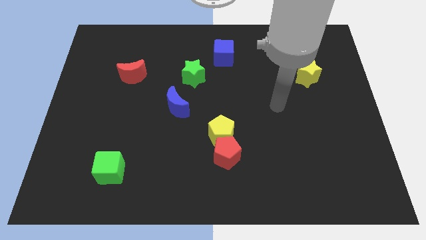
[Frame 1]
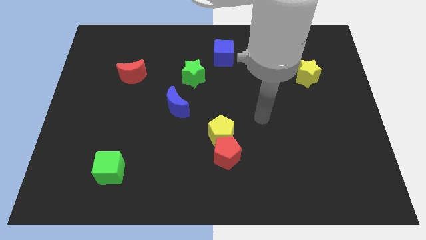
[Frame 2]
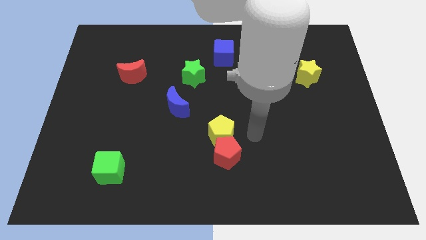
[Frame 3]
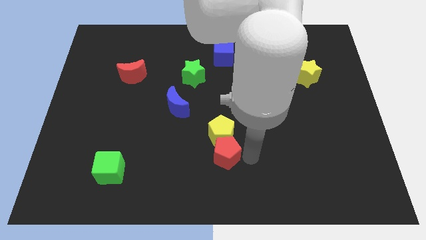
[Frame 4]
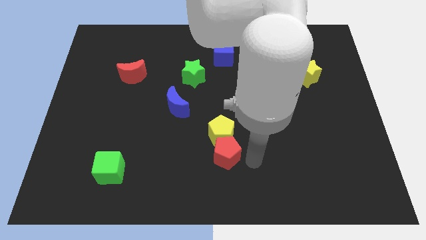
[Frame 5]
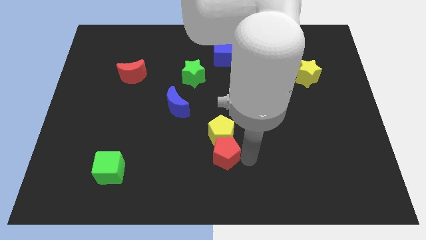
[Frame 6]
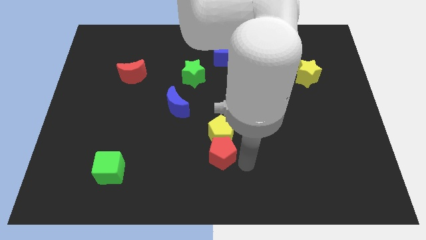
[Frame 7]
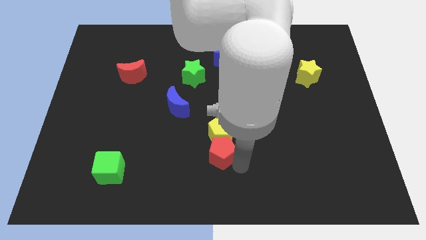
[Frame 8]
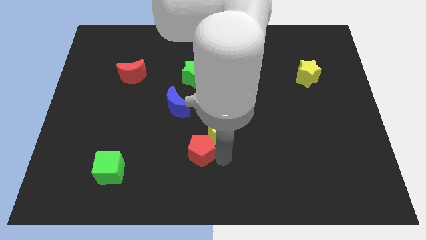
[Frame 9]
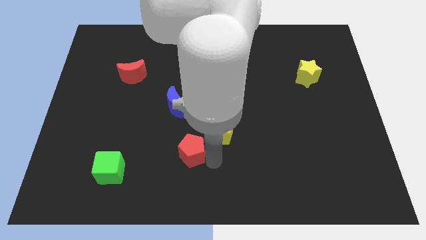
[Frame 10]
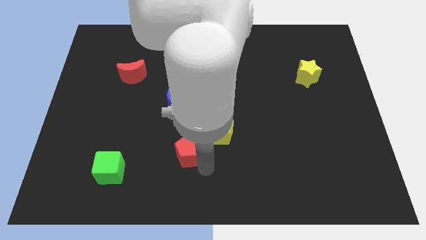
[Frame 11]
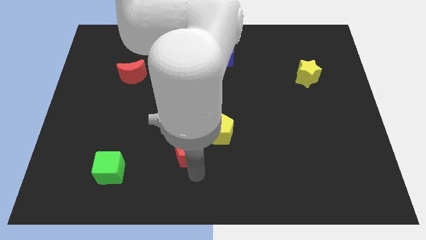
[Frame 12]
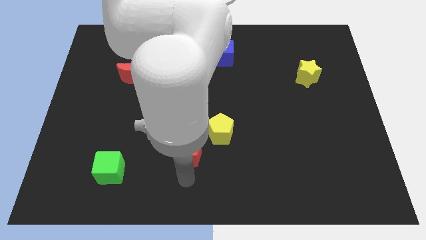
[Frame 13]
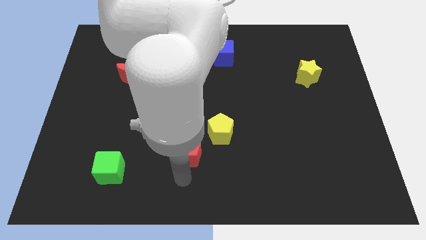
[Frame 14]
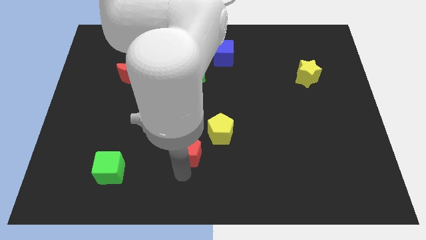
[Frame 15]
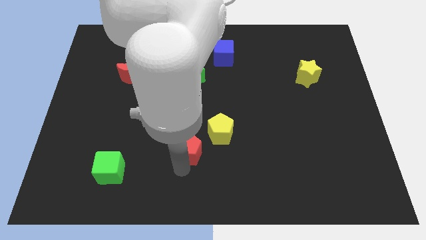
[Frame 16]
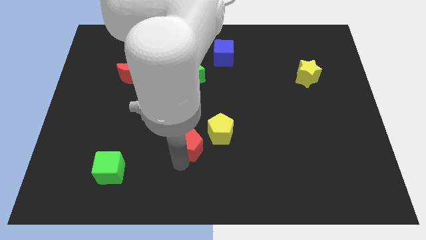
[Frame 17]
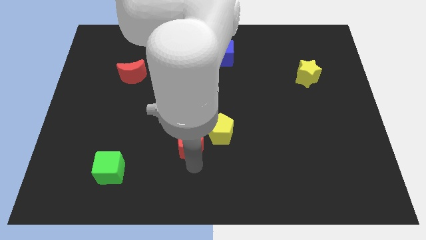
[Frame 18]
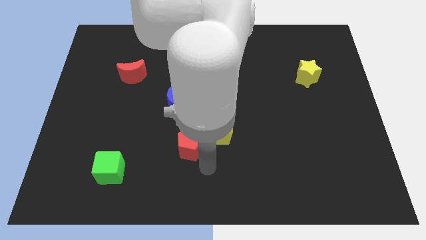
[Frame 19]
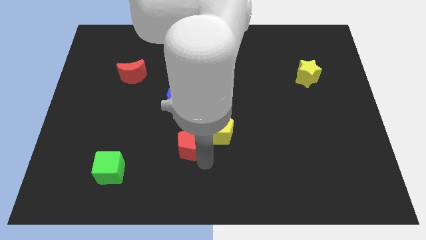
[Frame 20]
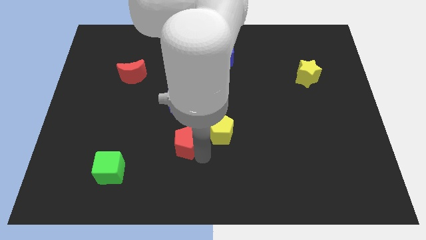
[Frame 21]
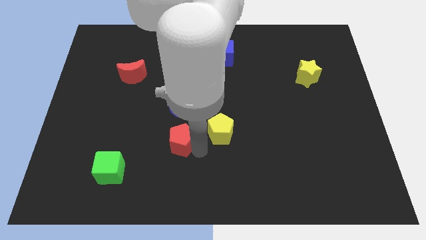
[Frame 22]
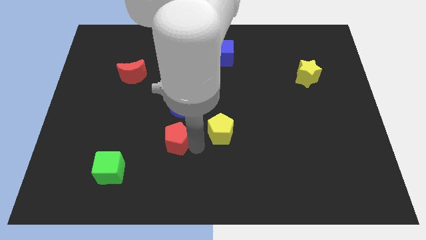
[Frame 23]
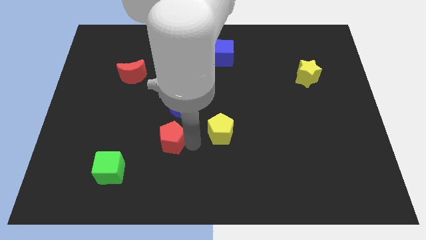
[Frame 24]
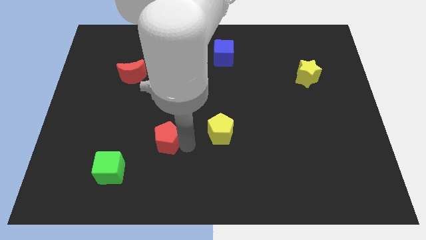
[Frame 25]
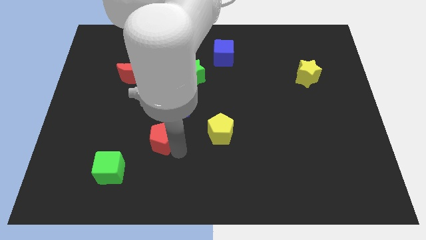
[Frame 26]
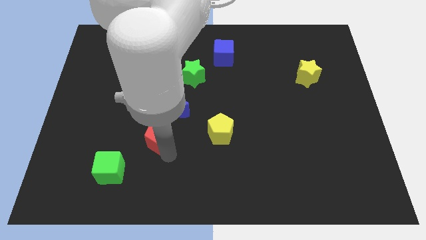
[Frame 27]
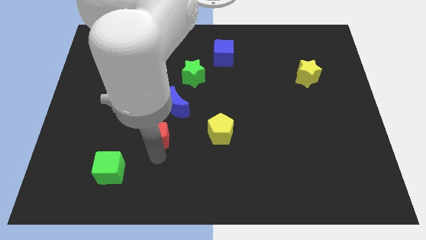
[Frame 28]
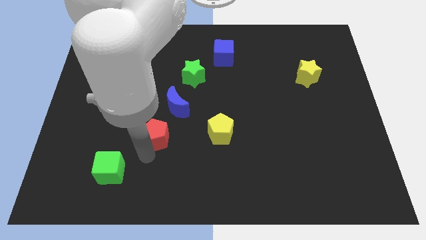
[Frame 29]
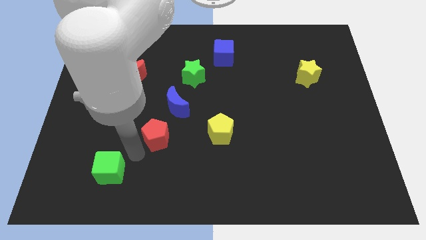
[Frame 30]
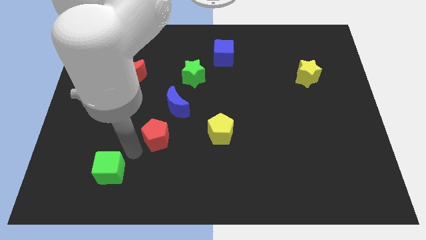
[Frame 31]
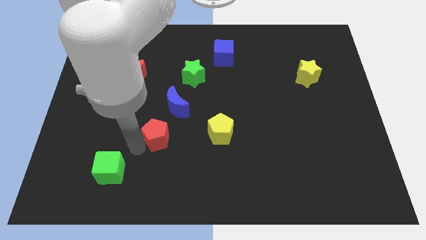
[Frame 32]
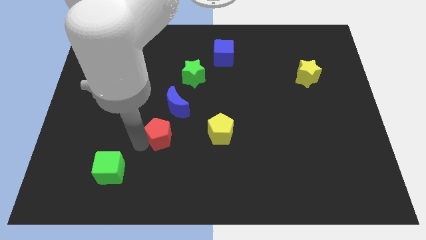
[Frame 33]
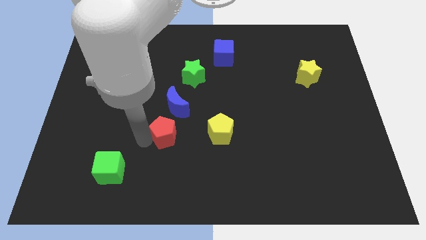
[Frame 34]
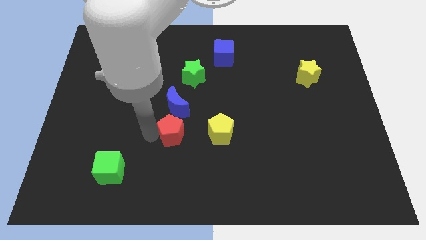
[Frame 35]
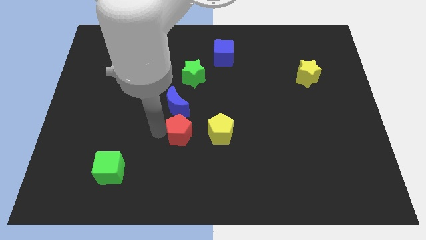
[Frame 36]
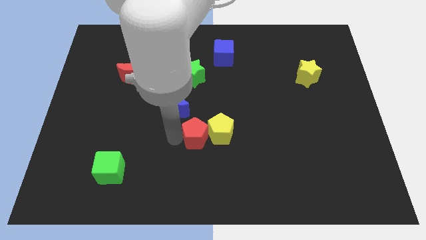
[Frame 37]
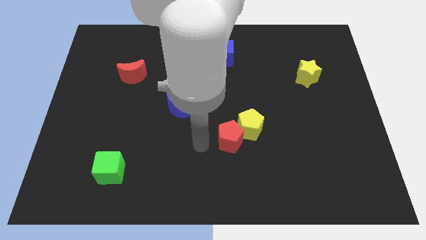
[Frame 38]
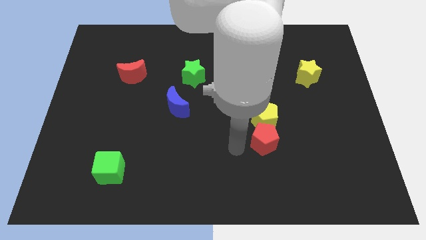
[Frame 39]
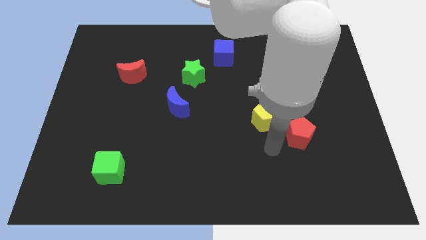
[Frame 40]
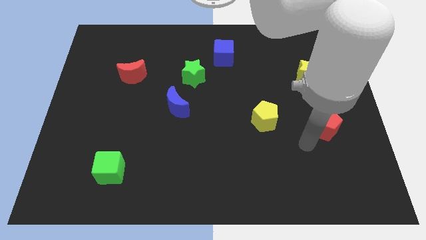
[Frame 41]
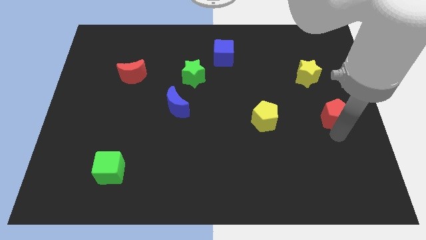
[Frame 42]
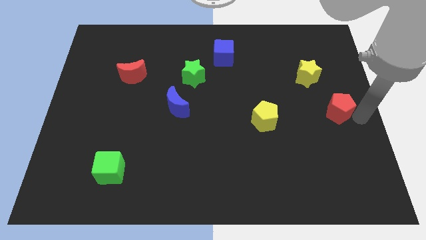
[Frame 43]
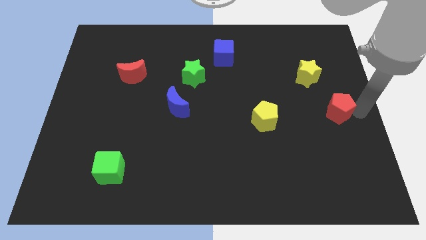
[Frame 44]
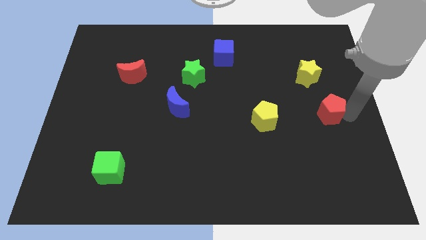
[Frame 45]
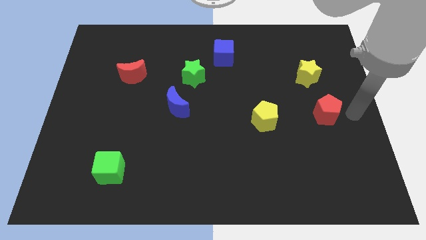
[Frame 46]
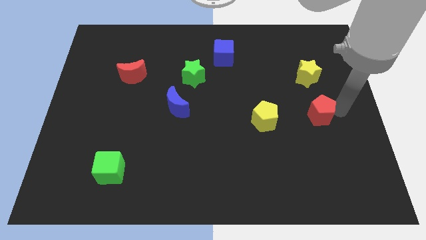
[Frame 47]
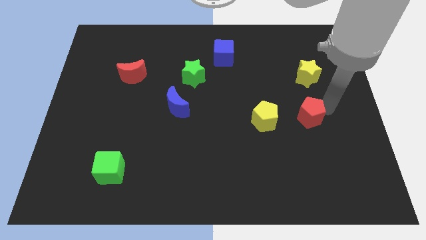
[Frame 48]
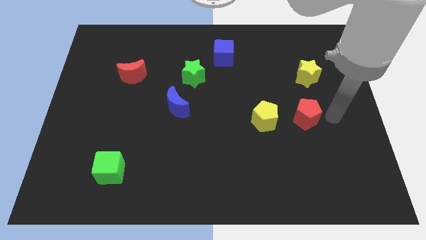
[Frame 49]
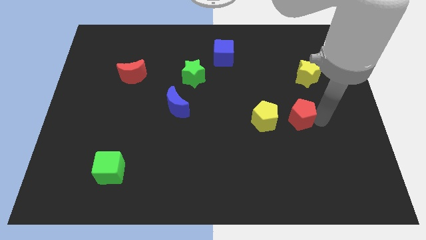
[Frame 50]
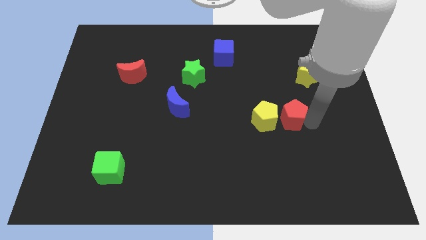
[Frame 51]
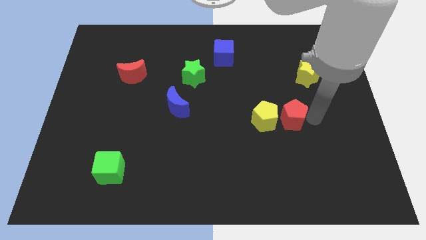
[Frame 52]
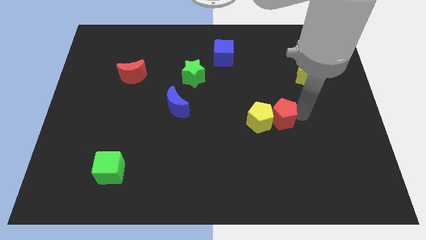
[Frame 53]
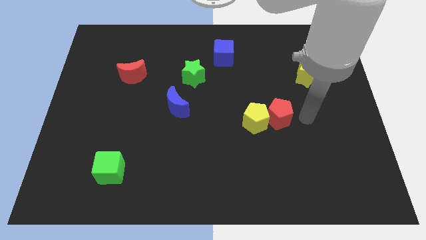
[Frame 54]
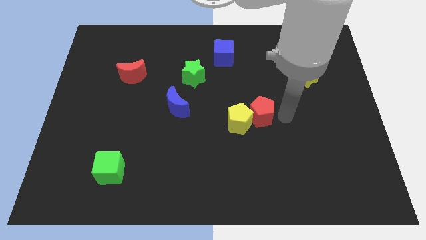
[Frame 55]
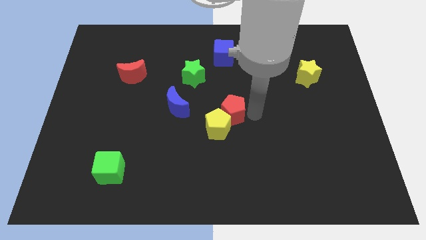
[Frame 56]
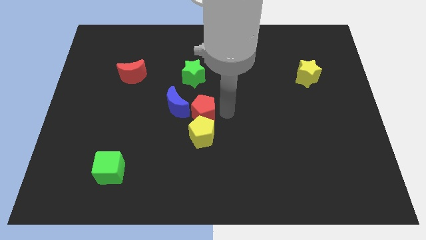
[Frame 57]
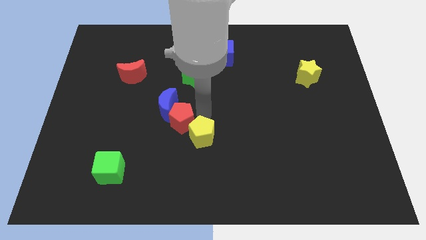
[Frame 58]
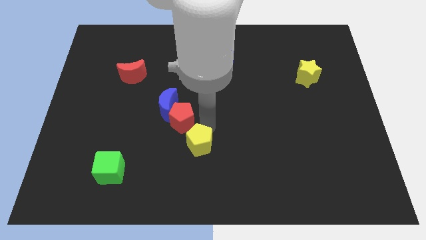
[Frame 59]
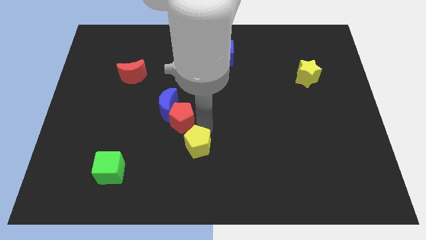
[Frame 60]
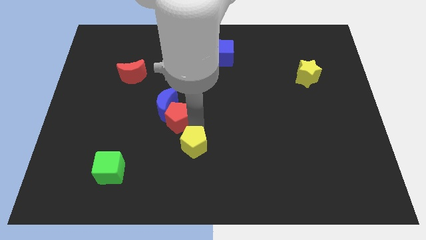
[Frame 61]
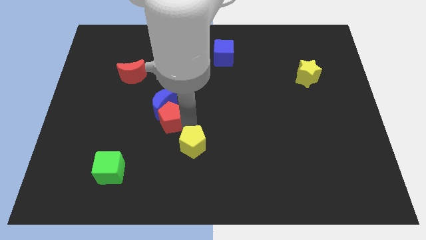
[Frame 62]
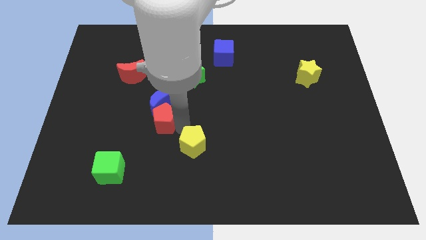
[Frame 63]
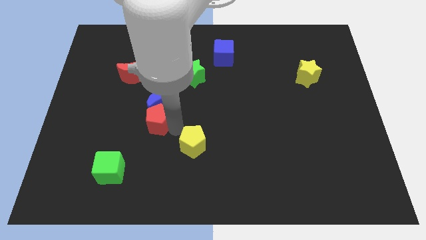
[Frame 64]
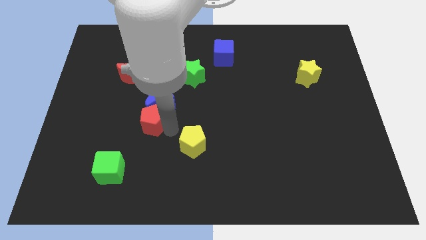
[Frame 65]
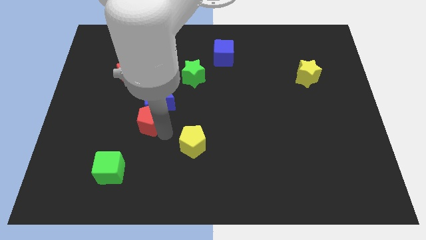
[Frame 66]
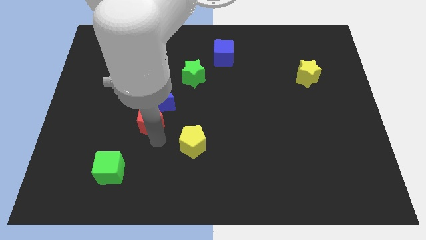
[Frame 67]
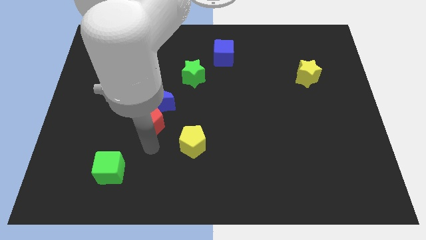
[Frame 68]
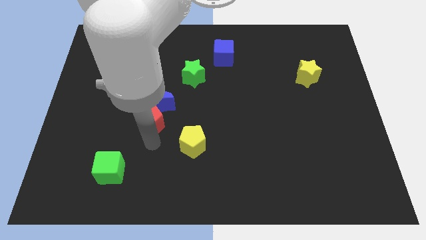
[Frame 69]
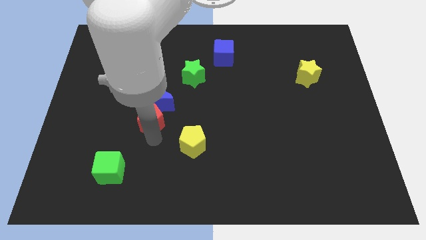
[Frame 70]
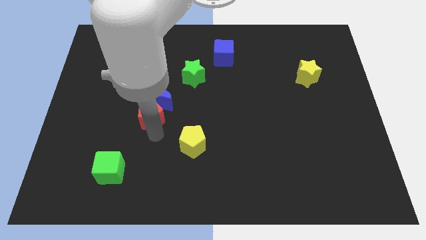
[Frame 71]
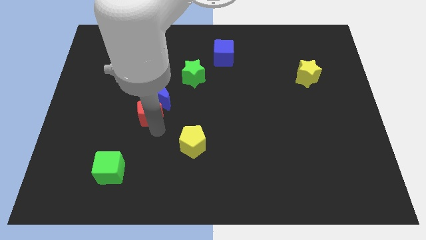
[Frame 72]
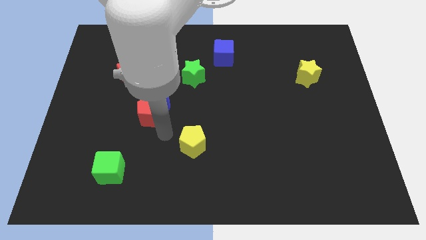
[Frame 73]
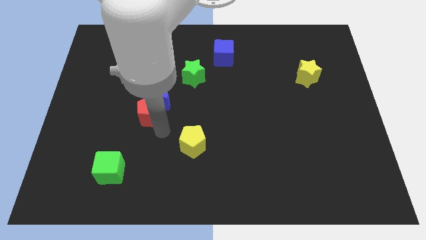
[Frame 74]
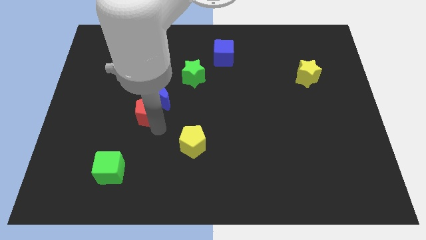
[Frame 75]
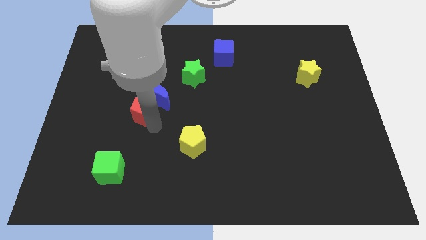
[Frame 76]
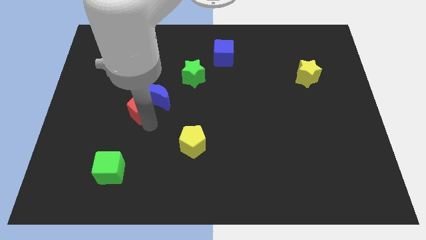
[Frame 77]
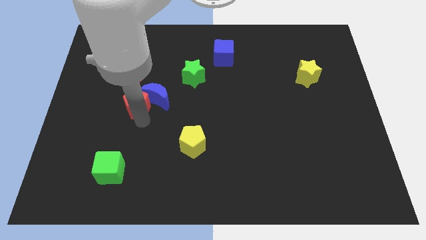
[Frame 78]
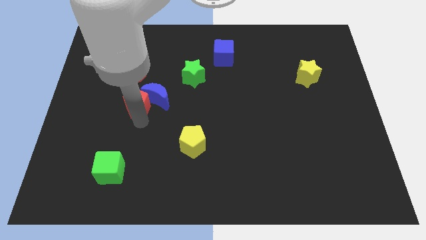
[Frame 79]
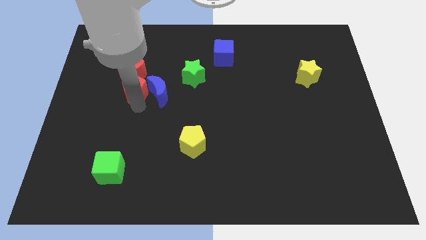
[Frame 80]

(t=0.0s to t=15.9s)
slide the red pentagon towards the red moon

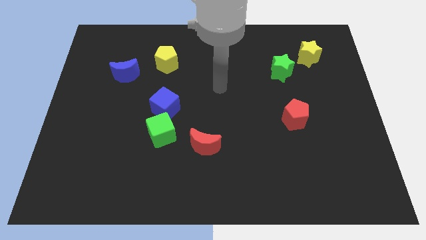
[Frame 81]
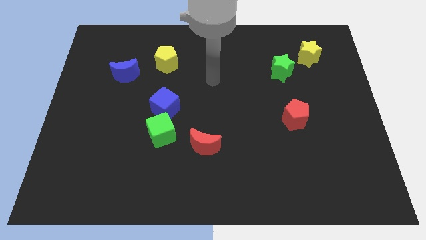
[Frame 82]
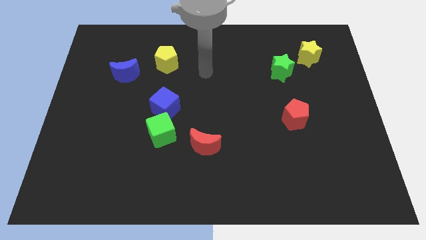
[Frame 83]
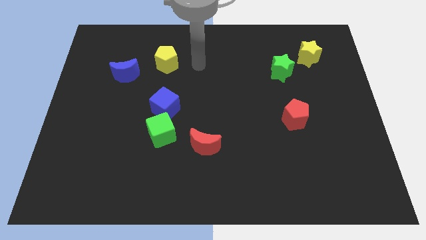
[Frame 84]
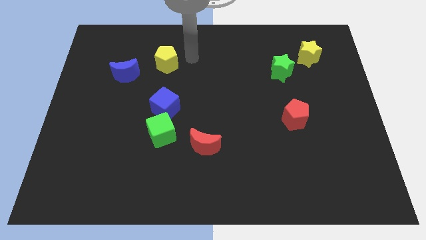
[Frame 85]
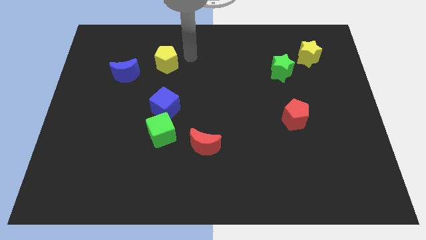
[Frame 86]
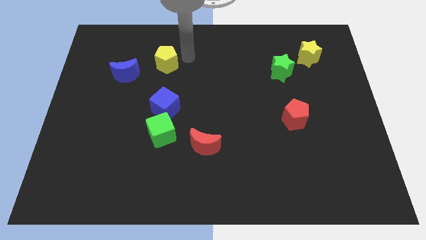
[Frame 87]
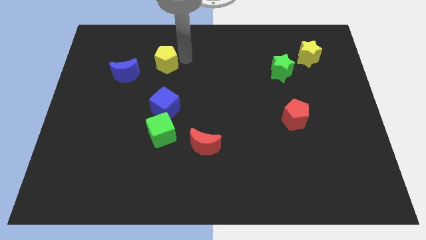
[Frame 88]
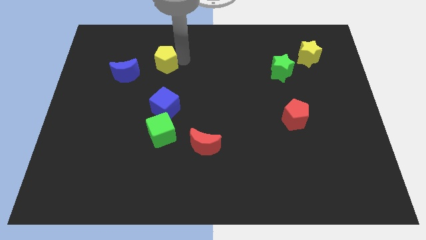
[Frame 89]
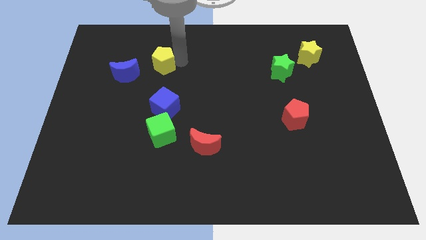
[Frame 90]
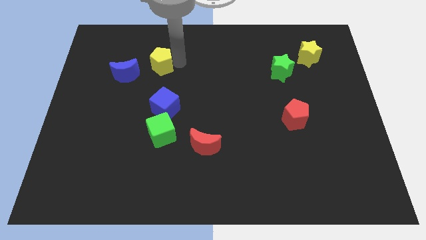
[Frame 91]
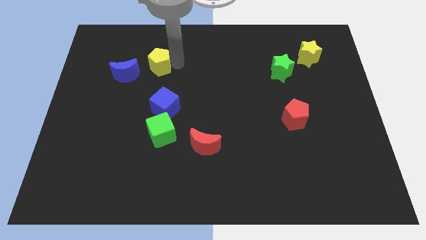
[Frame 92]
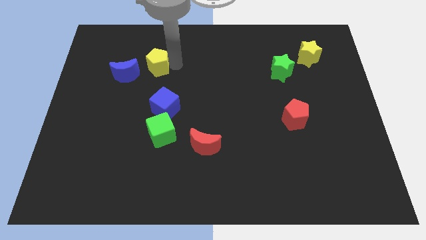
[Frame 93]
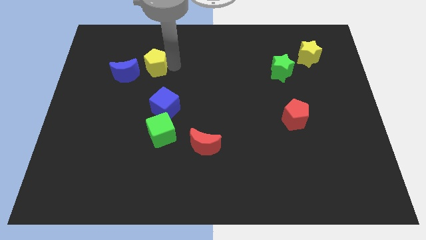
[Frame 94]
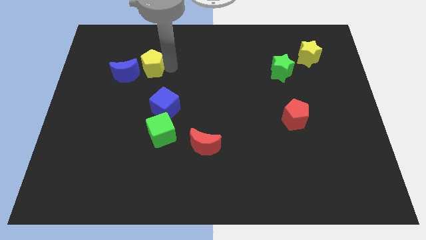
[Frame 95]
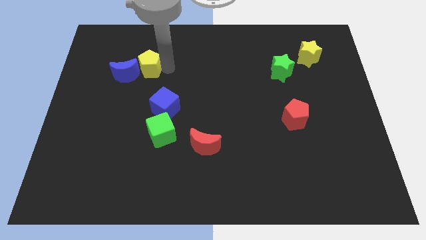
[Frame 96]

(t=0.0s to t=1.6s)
slide the yellow pentagon next to the blue moon
